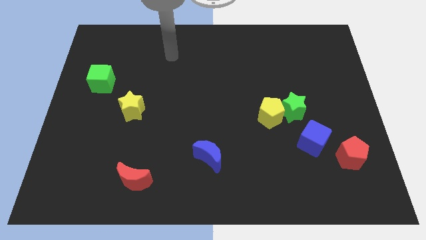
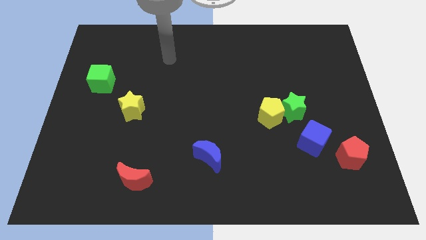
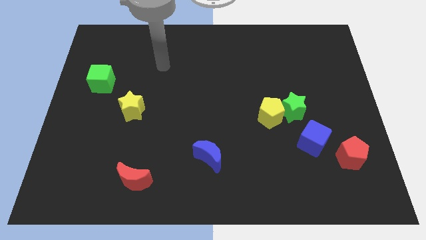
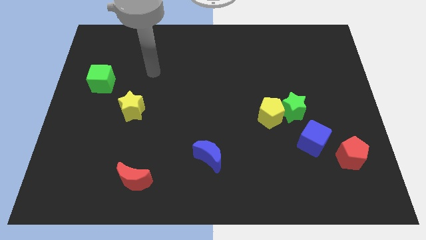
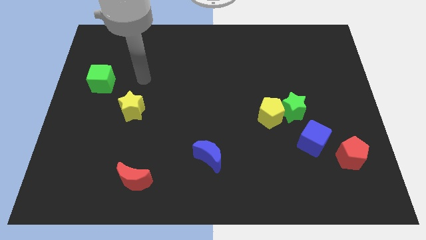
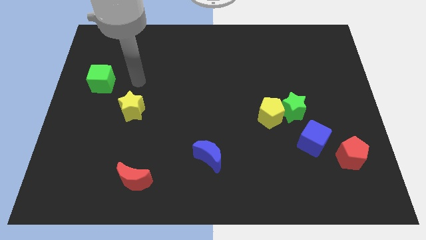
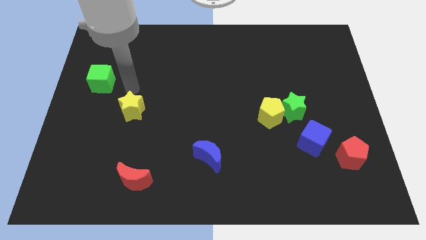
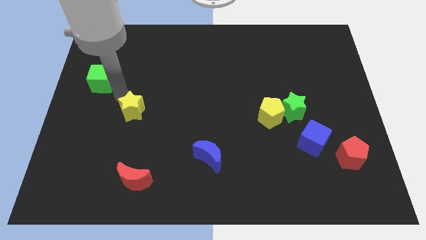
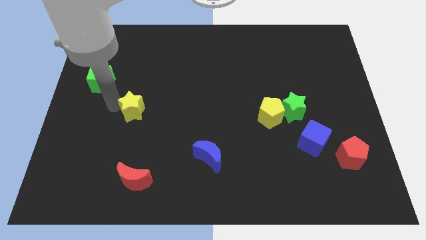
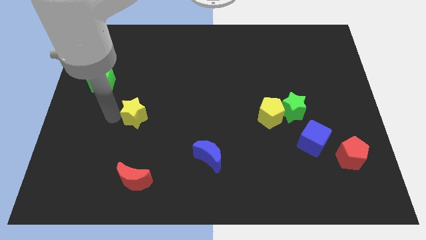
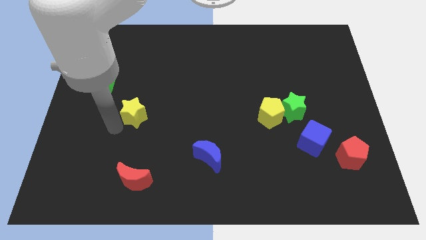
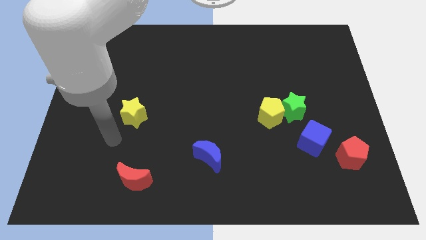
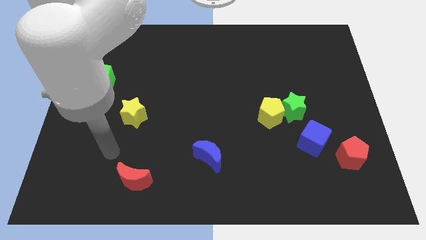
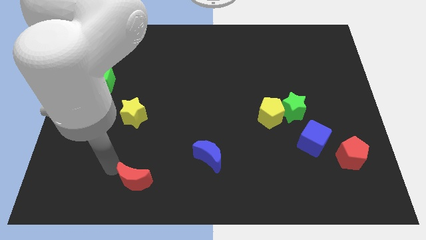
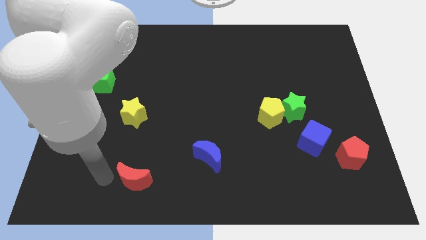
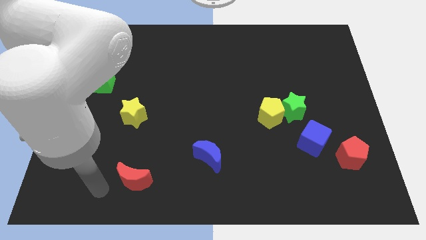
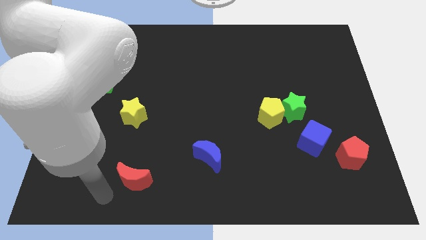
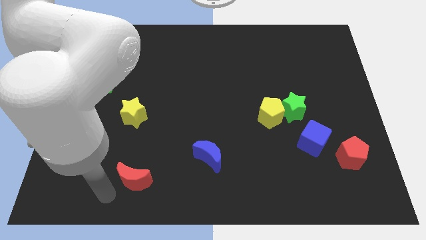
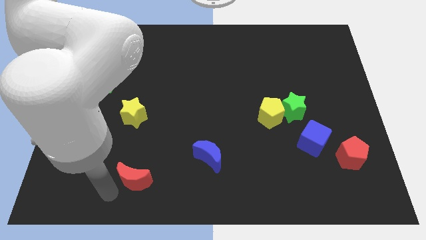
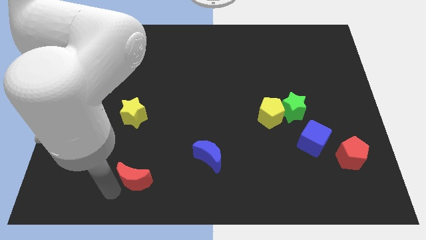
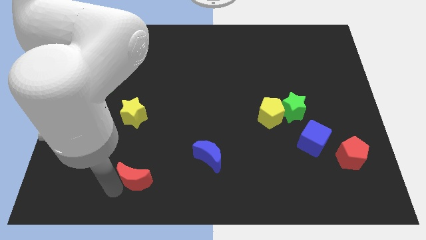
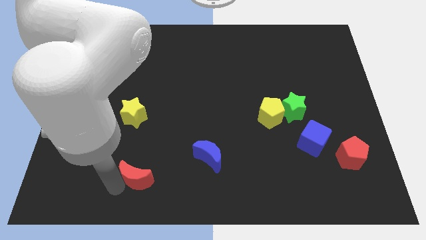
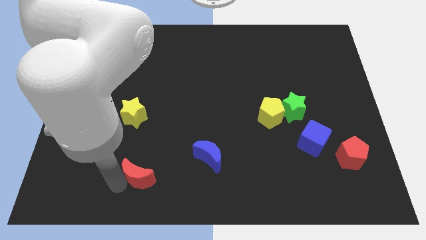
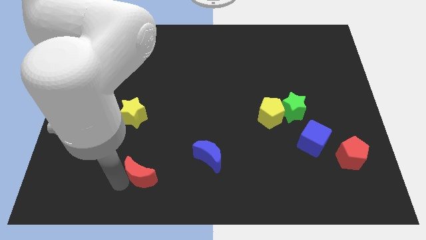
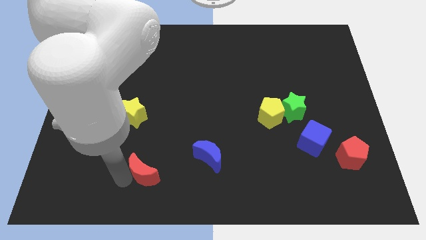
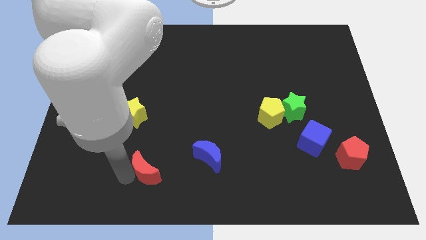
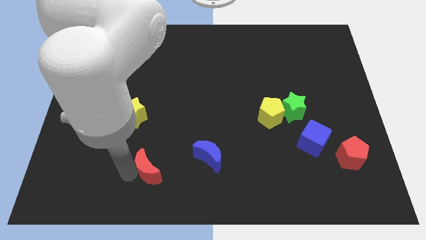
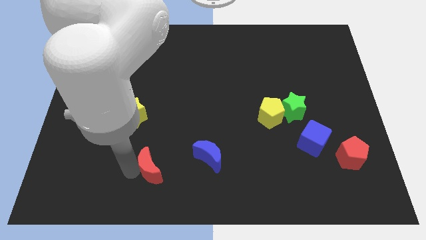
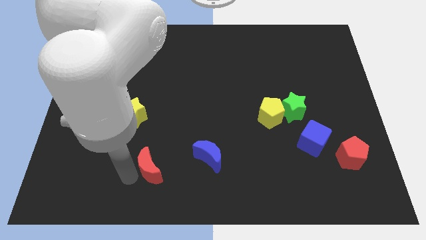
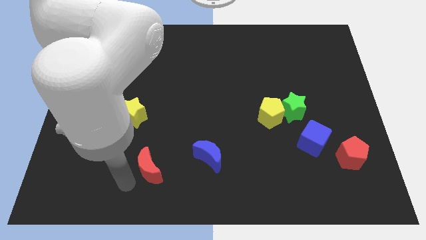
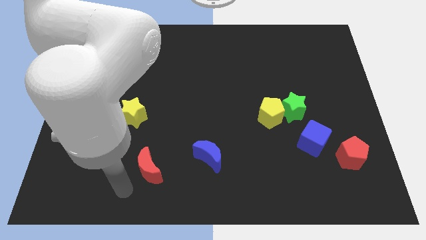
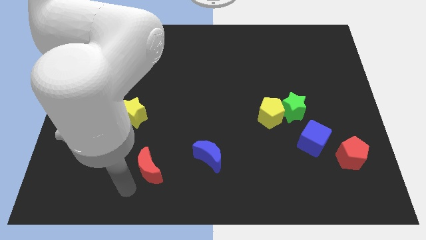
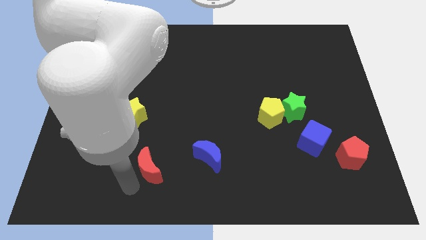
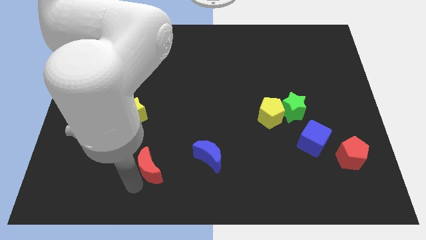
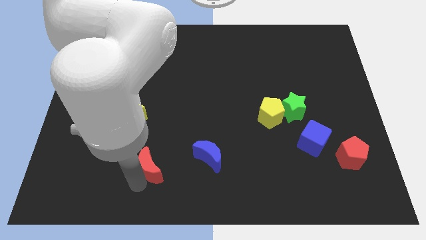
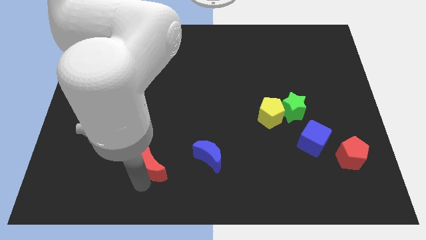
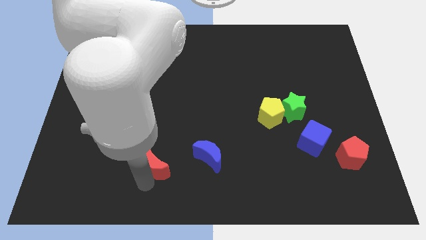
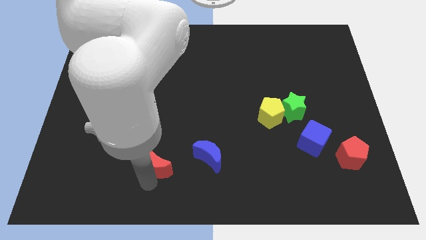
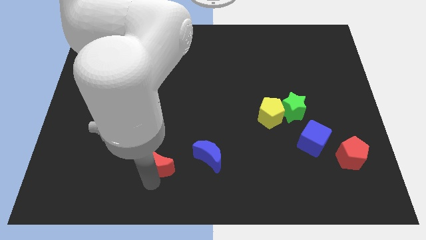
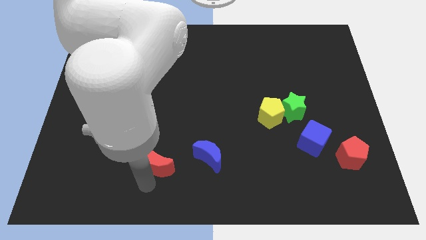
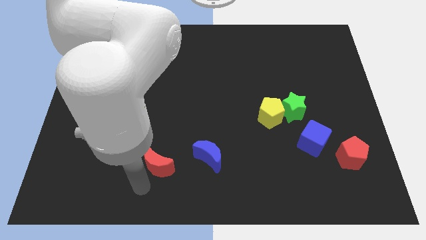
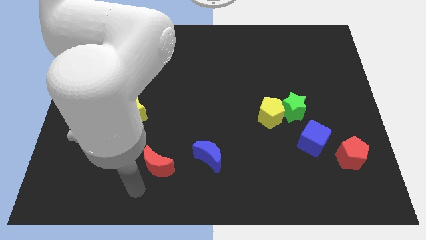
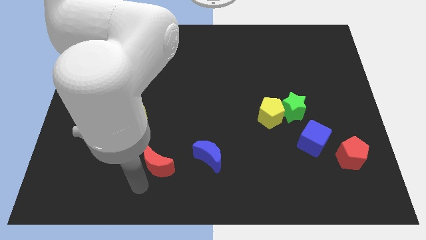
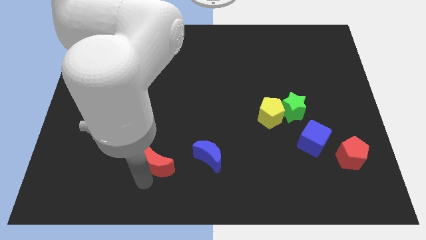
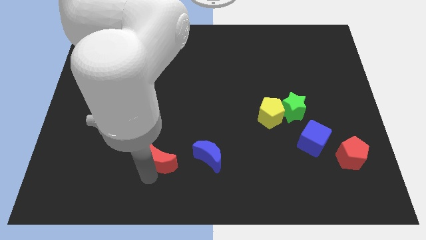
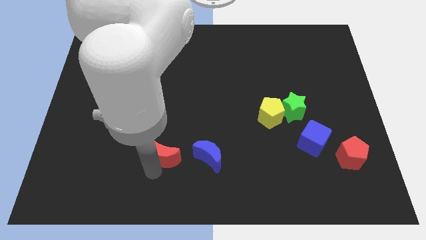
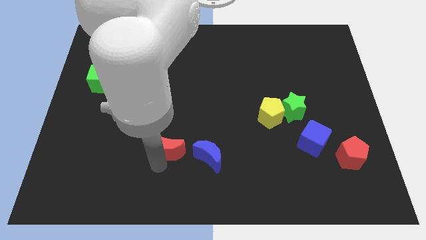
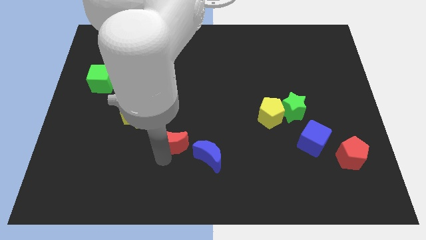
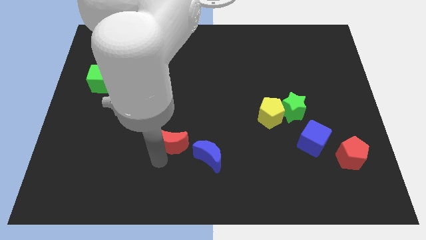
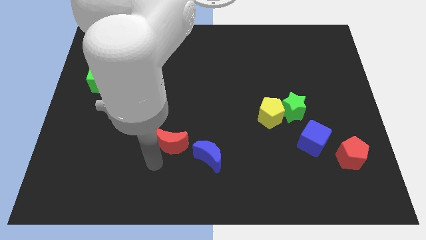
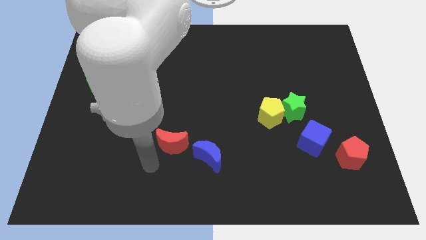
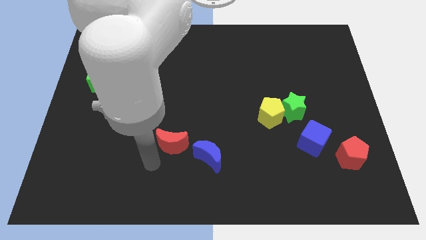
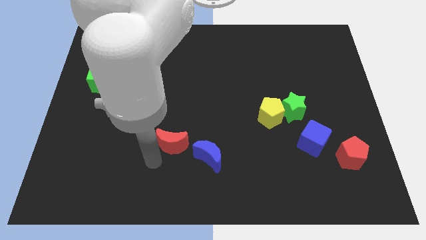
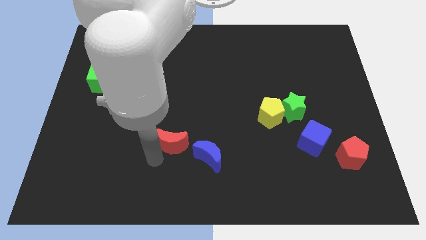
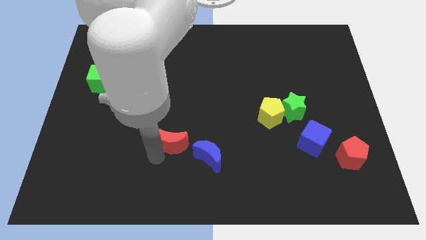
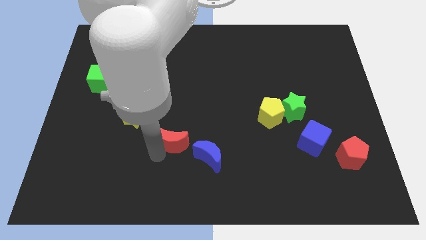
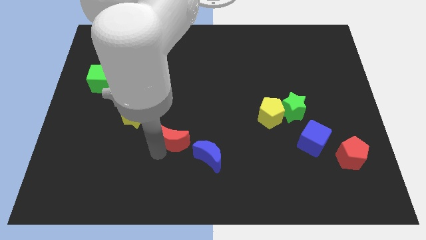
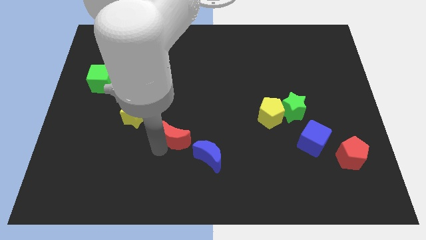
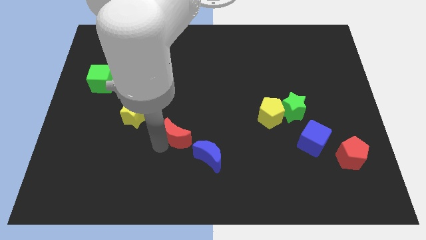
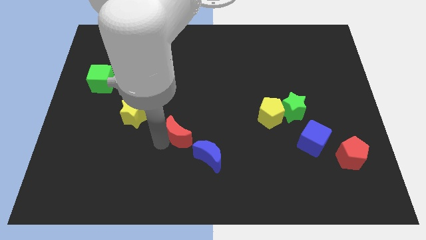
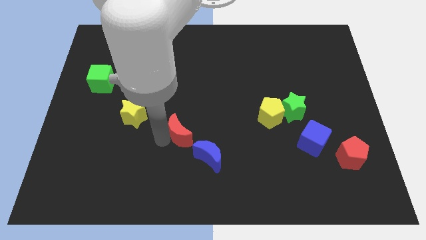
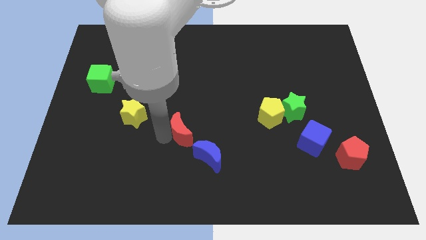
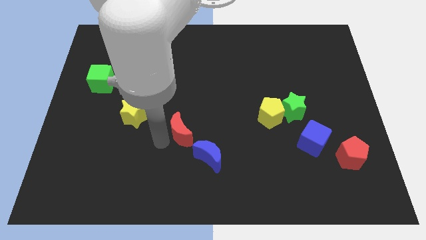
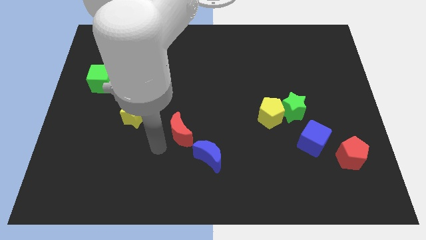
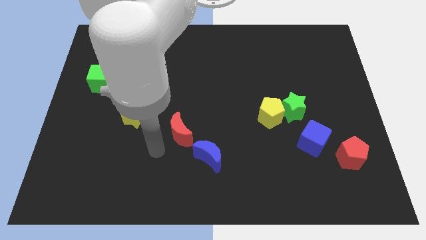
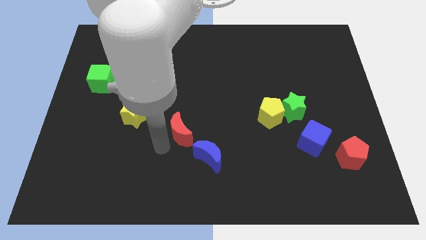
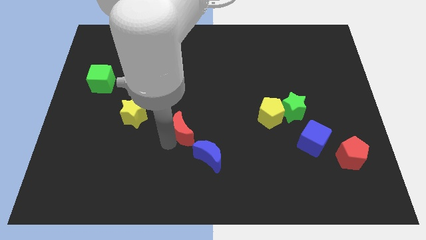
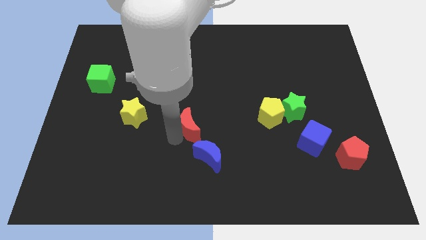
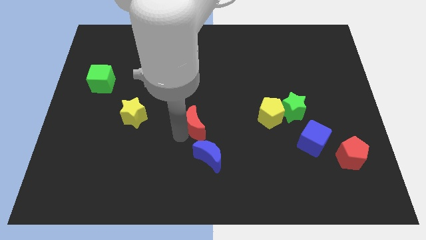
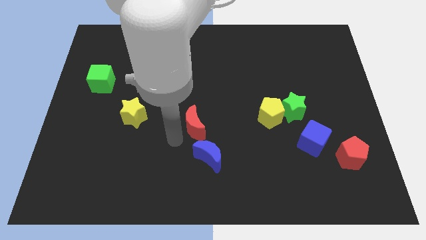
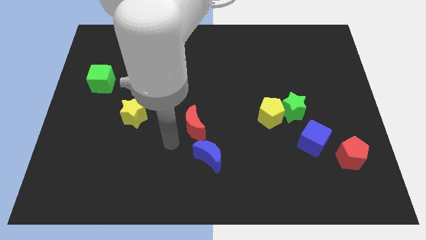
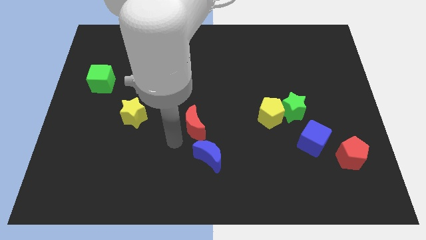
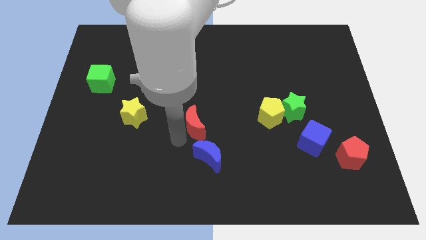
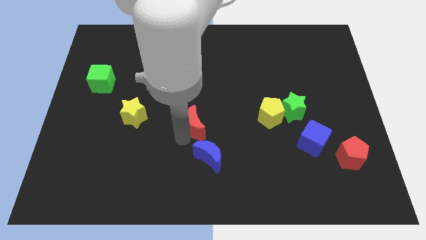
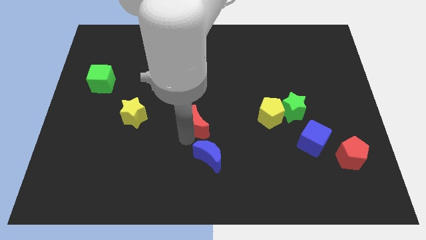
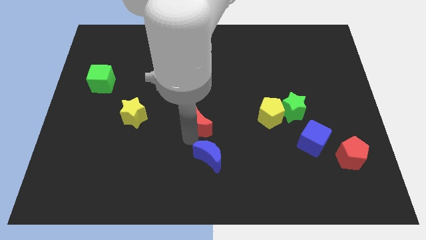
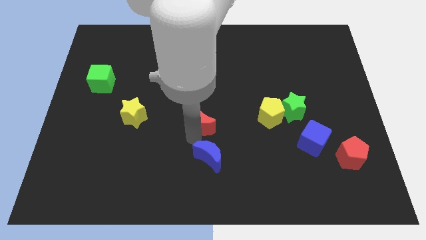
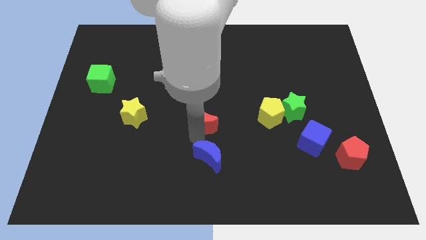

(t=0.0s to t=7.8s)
push the red moon upwards and to the right

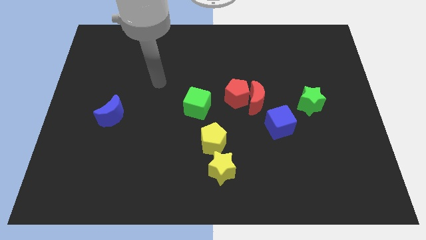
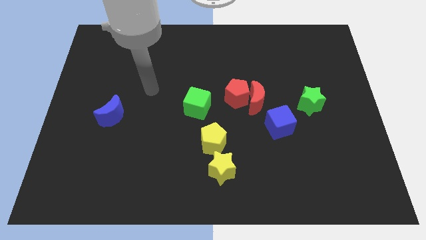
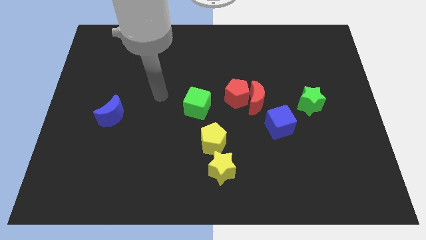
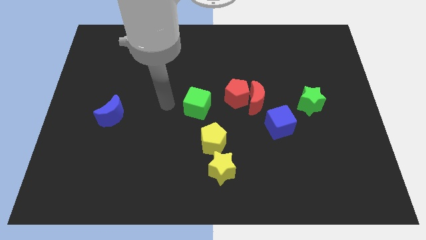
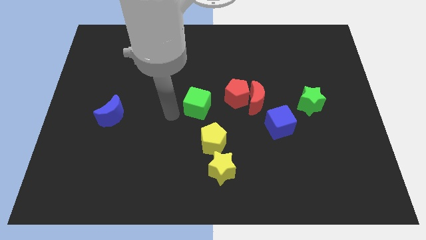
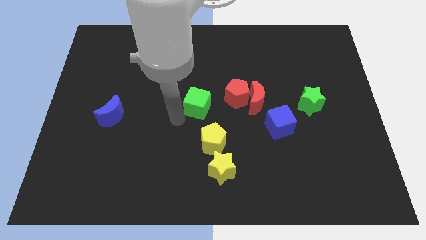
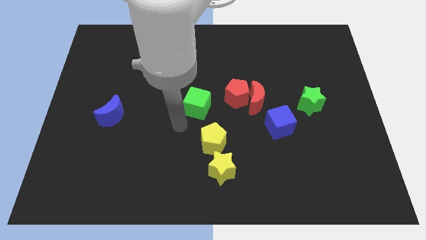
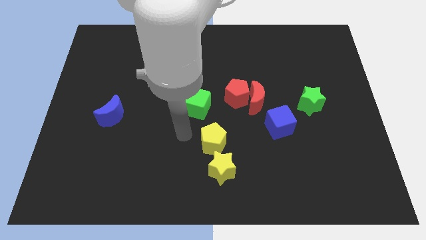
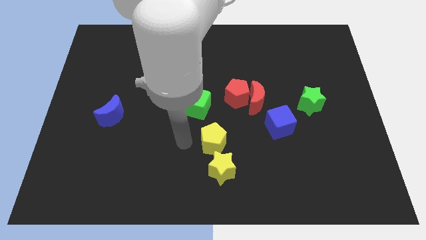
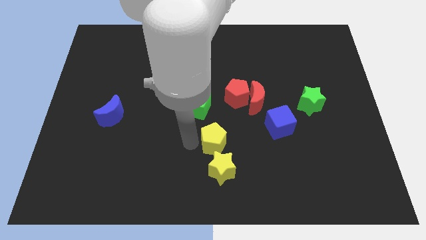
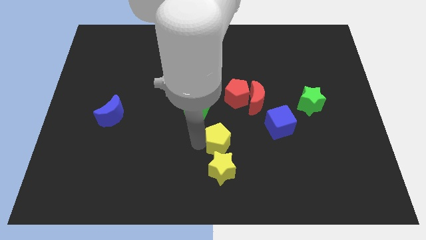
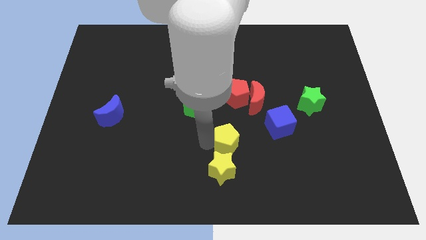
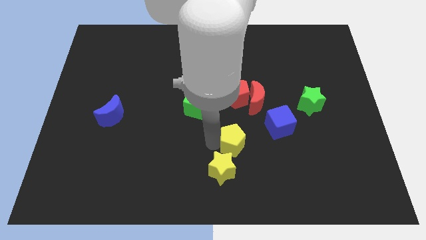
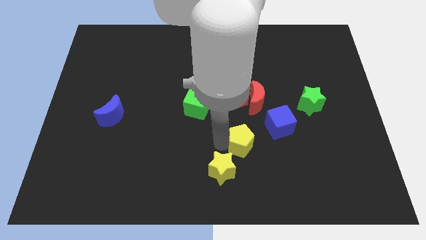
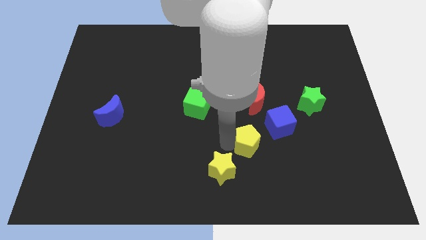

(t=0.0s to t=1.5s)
move the yellow pentagon right a bit
